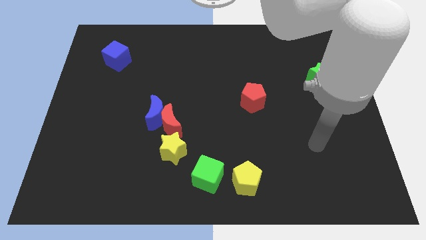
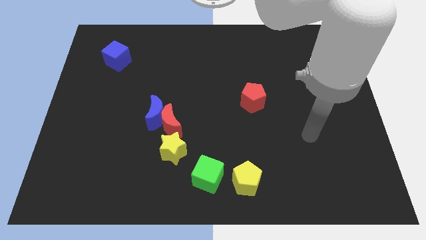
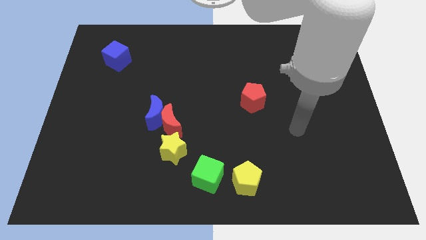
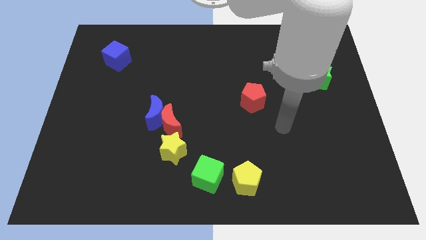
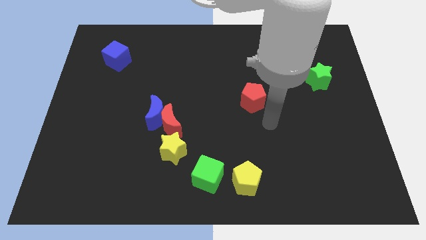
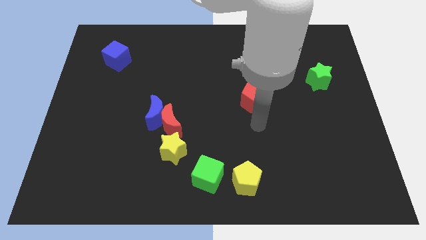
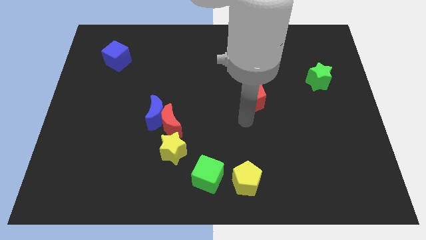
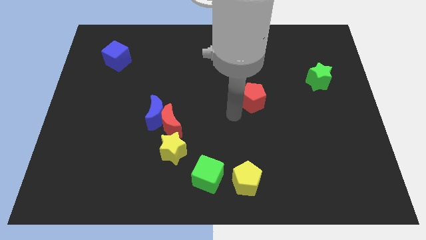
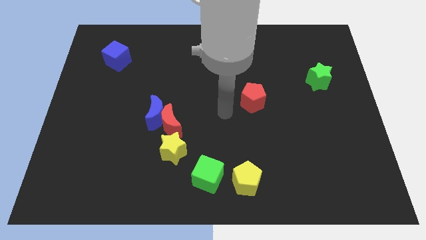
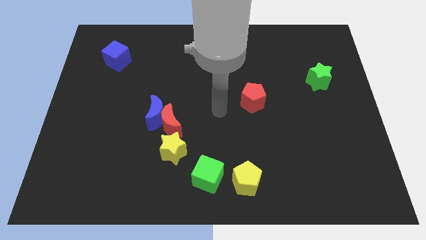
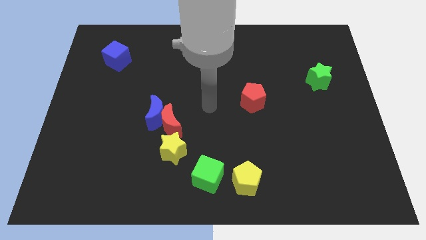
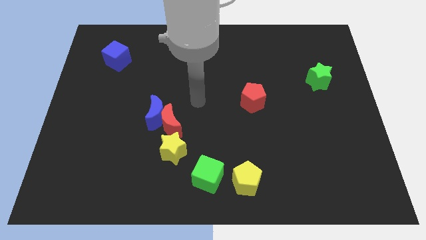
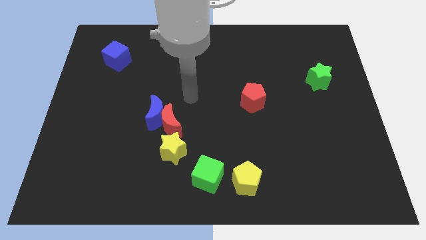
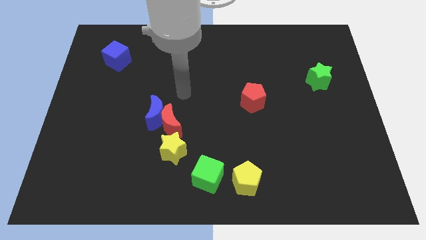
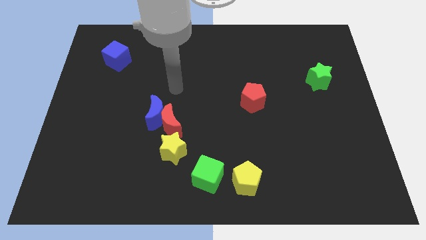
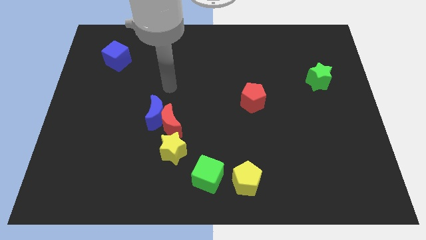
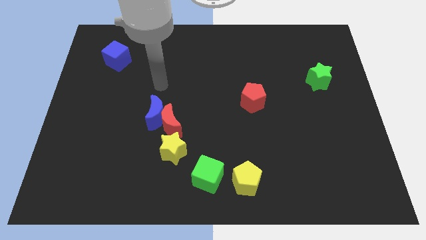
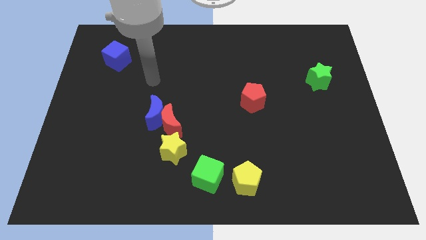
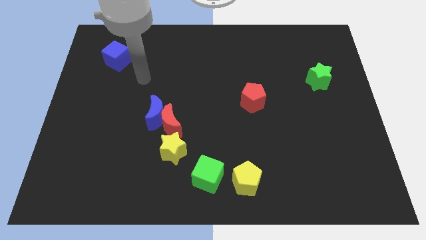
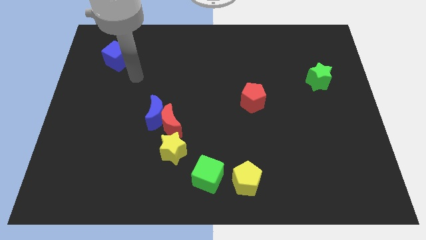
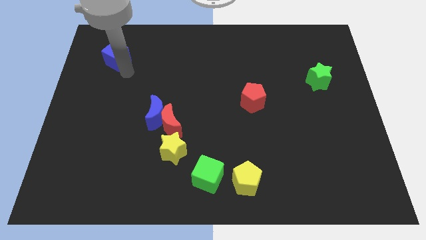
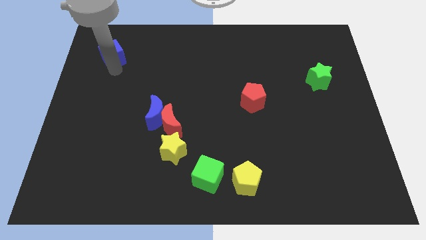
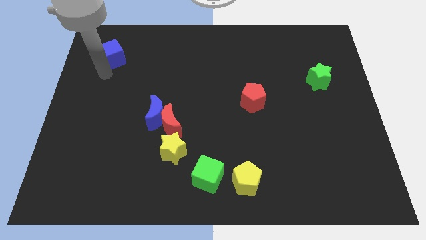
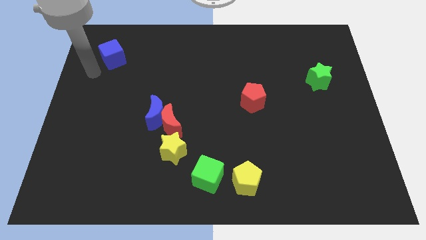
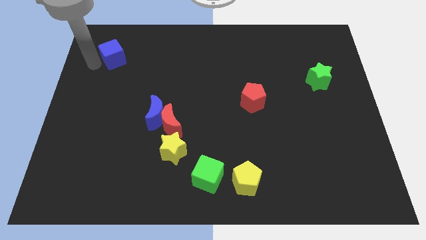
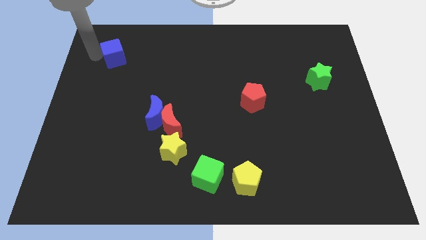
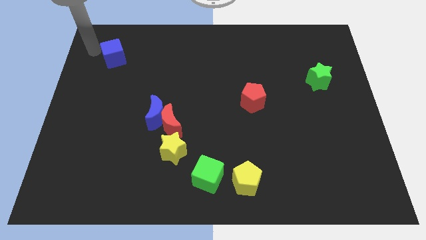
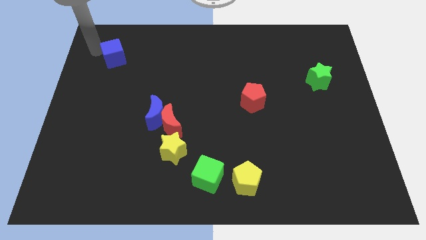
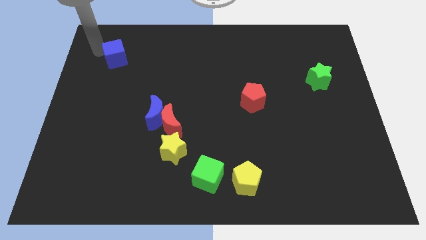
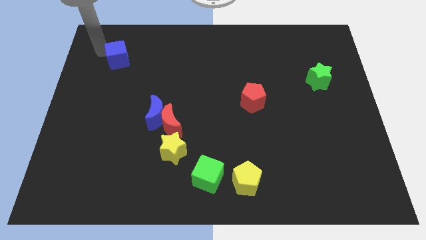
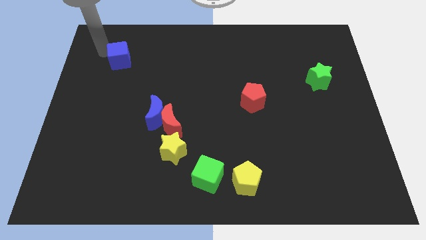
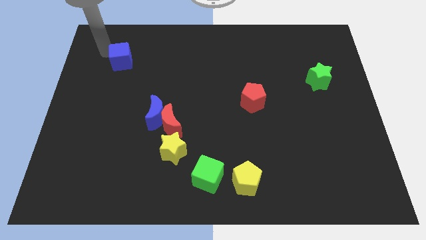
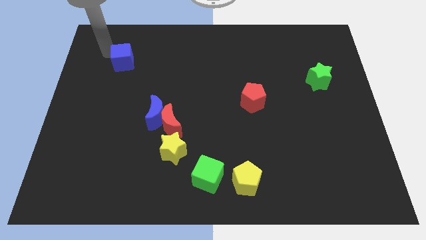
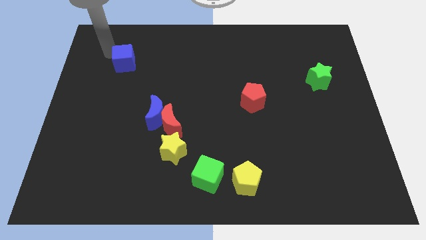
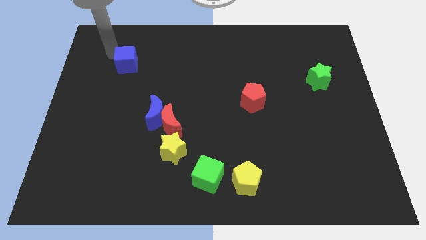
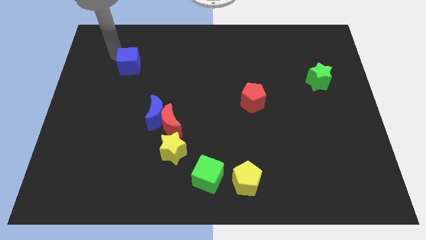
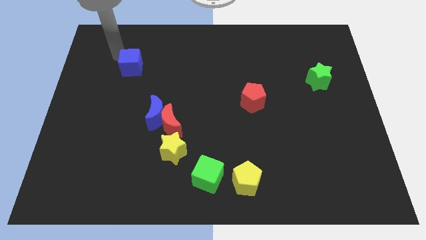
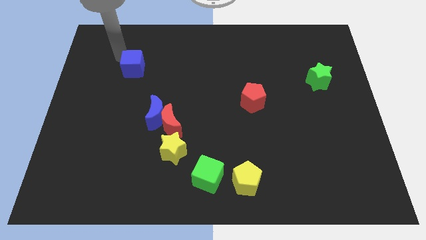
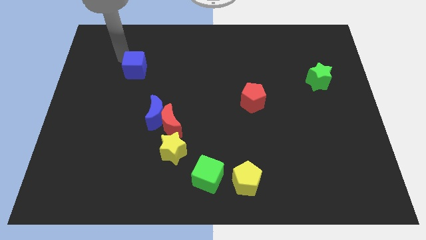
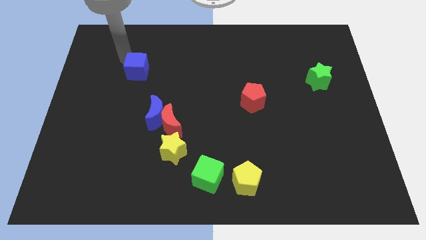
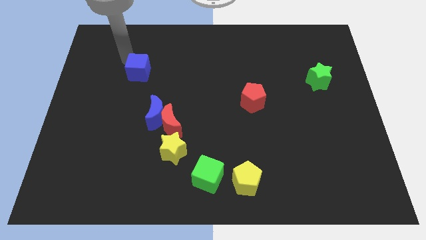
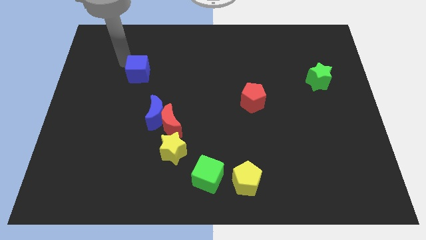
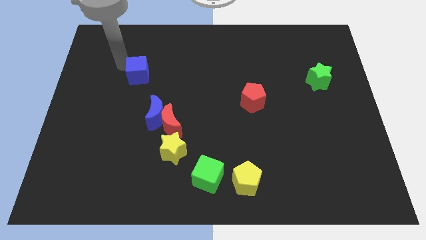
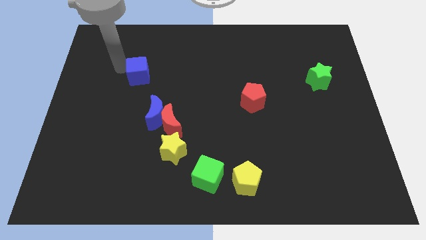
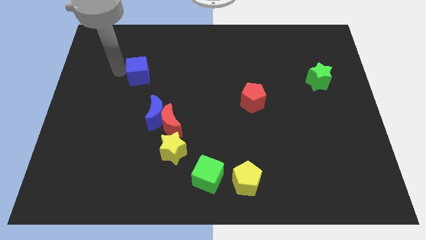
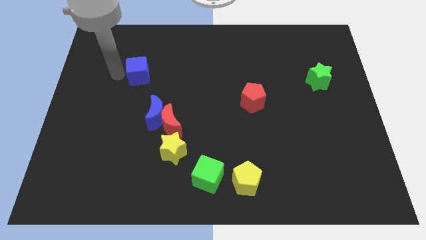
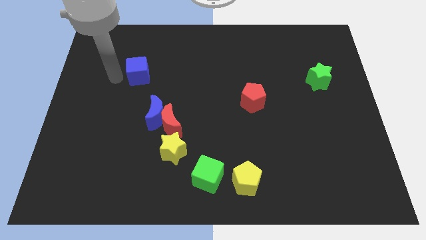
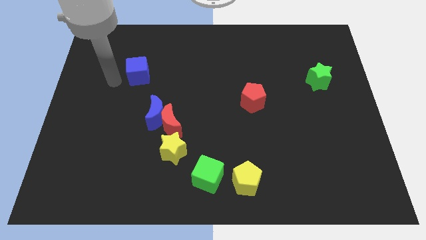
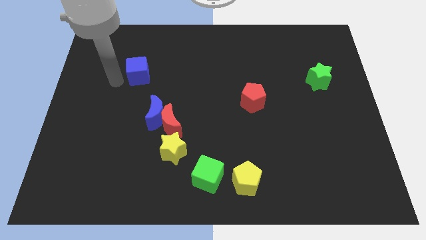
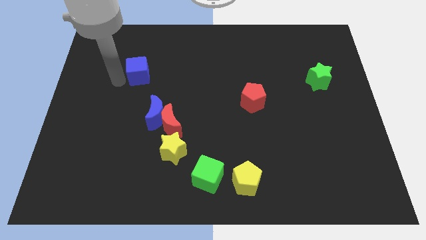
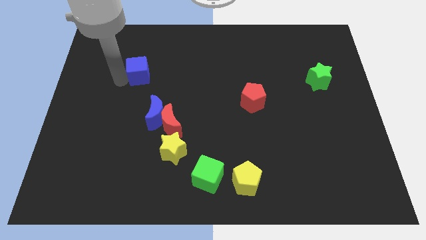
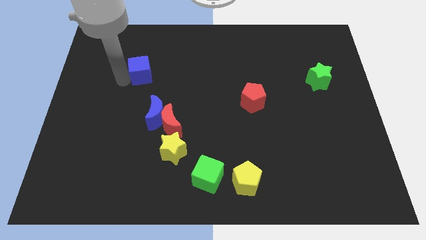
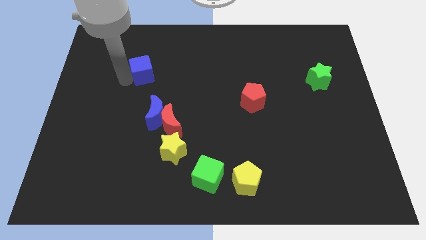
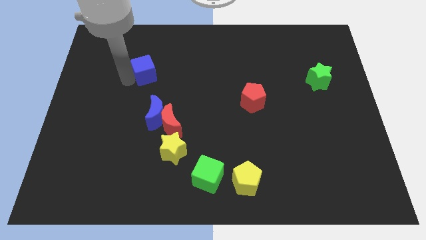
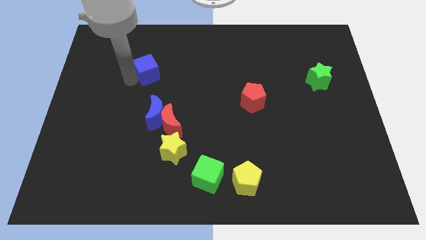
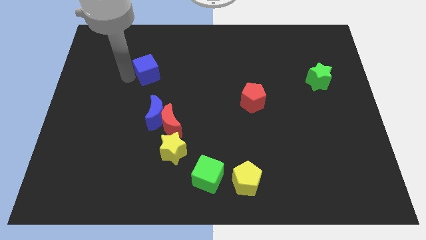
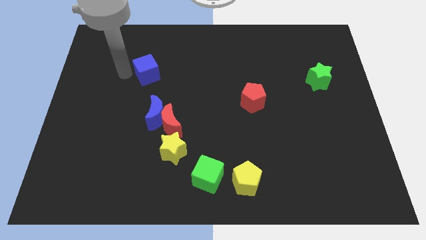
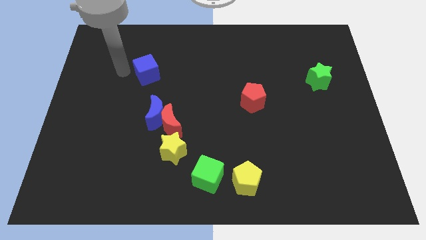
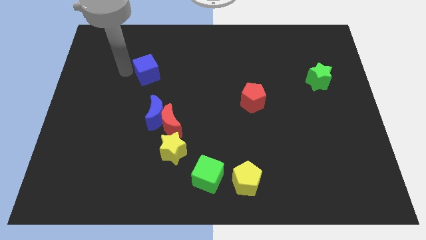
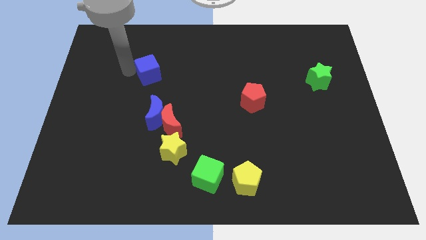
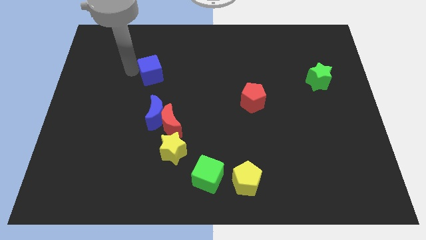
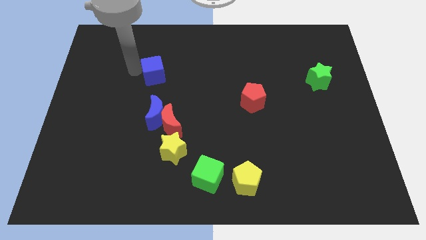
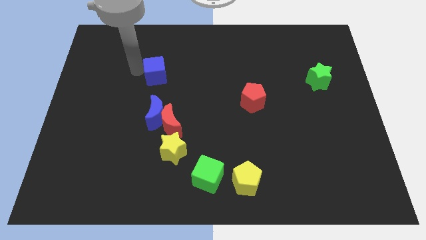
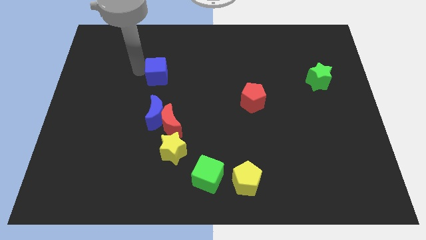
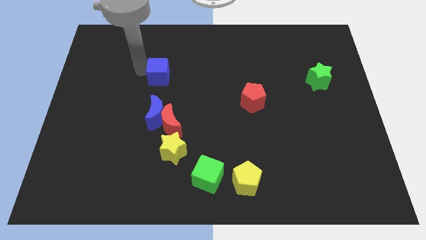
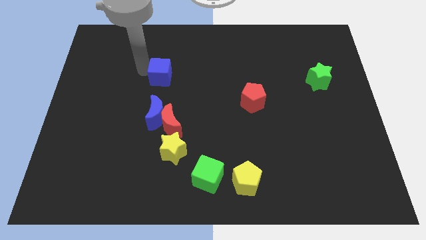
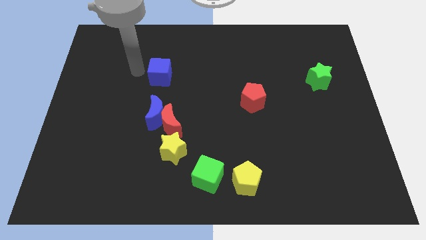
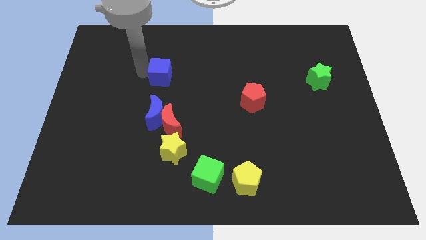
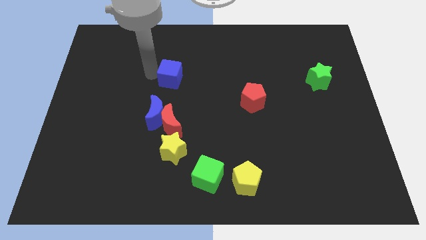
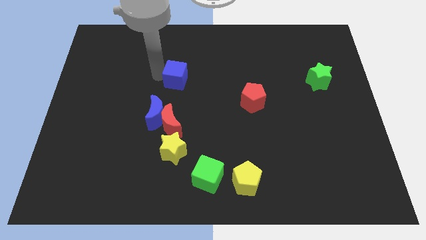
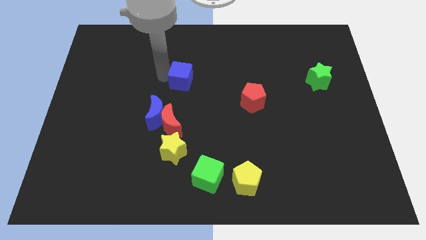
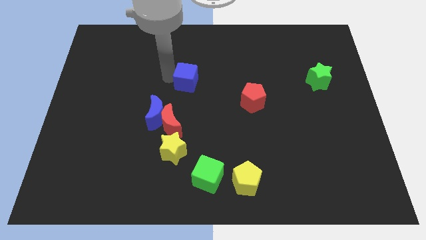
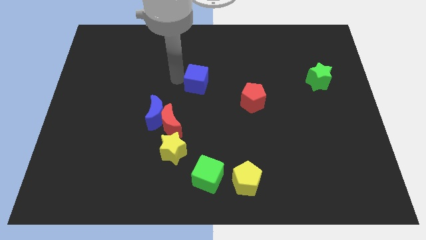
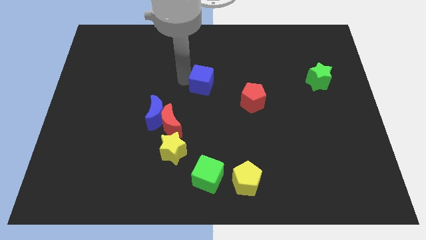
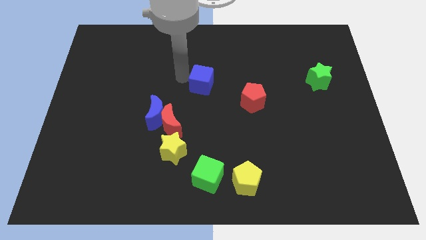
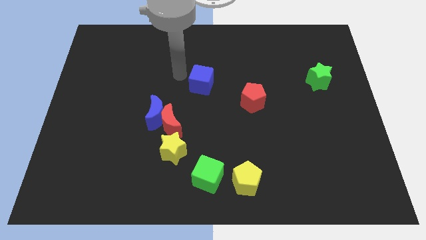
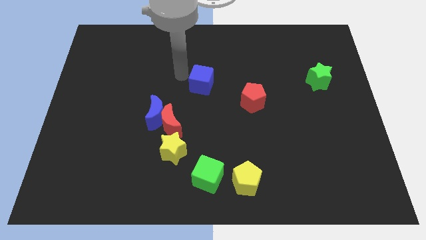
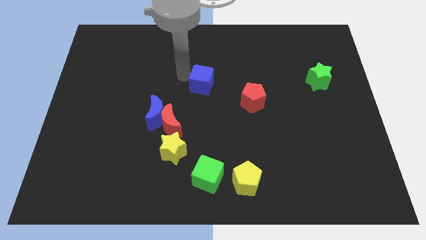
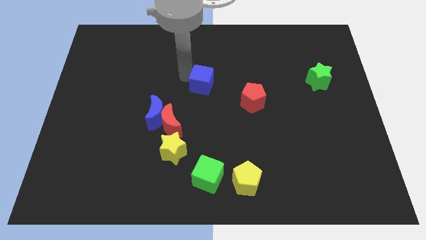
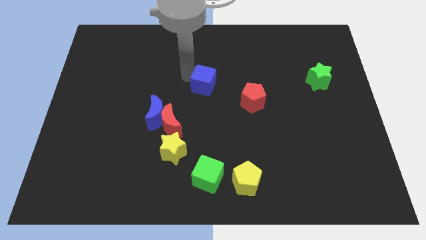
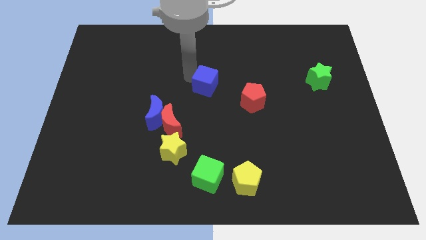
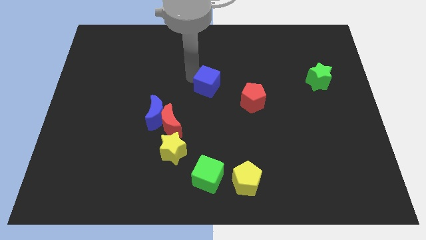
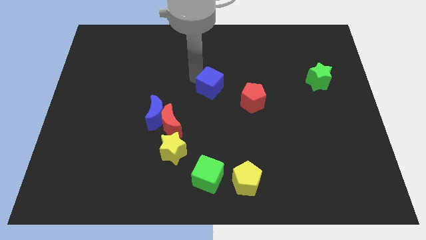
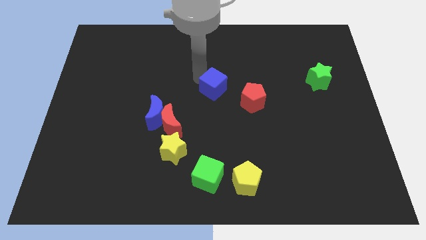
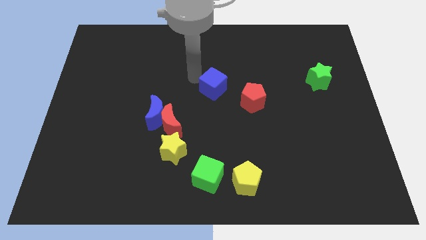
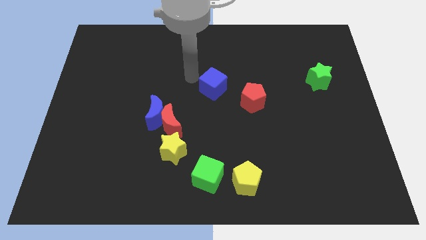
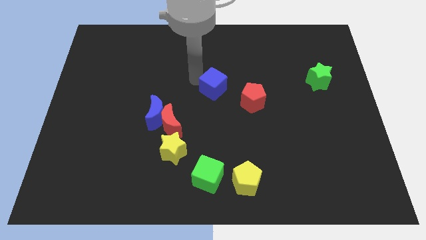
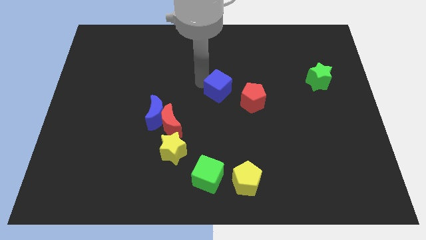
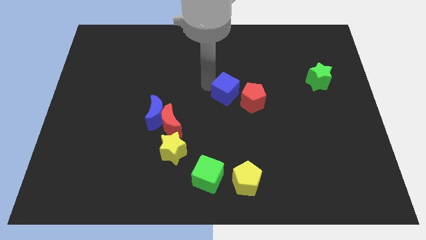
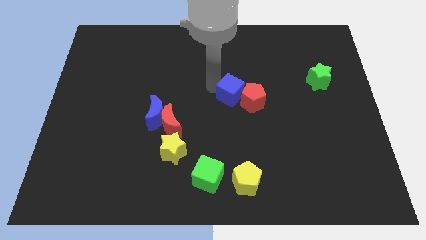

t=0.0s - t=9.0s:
put the blue cube to the red pentagon
